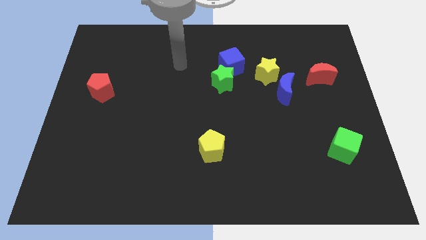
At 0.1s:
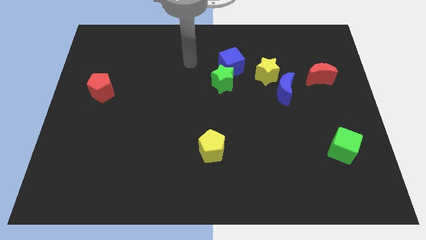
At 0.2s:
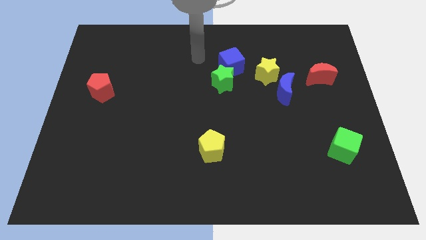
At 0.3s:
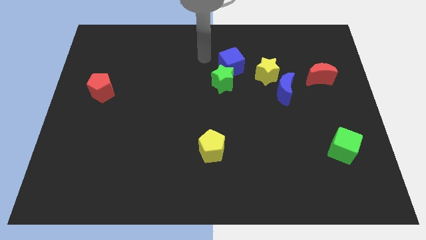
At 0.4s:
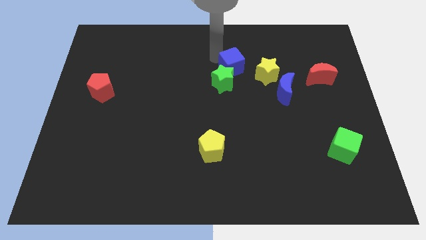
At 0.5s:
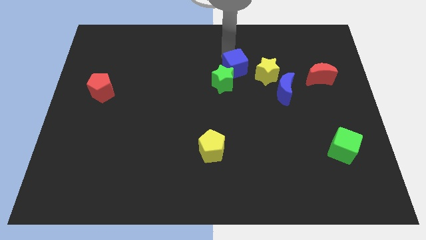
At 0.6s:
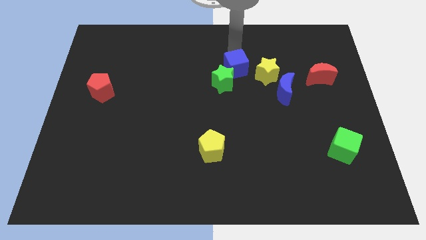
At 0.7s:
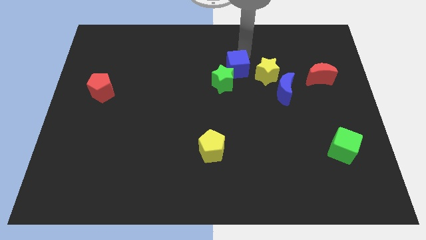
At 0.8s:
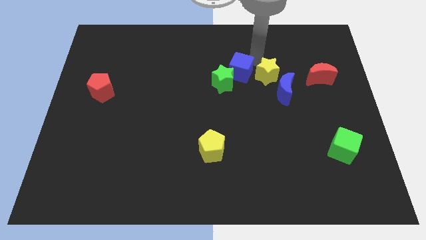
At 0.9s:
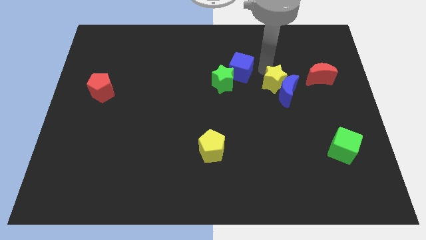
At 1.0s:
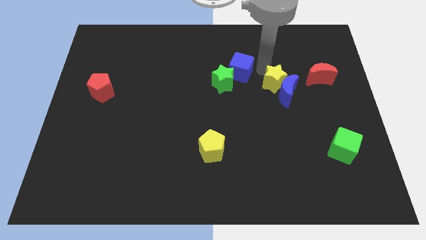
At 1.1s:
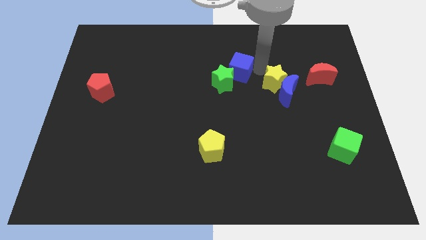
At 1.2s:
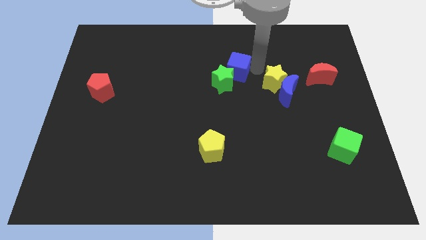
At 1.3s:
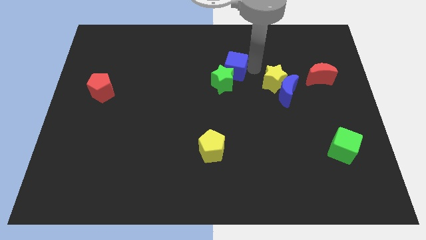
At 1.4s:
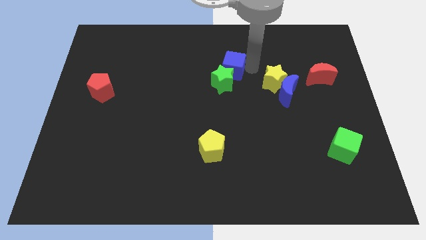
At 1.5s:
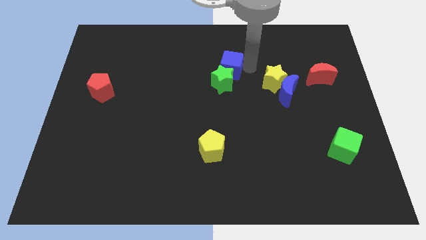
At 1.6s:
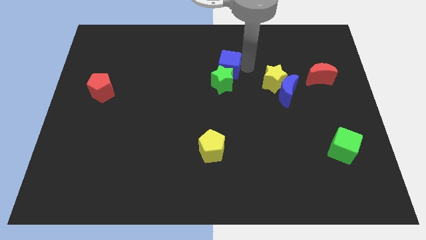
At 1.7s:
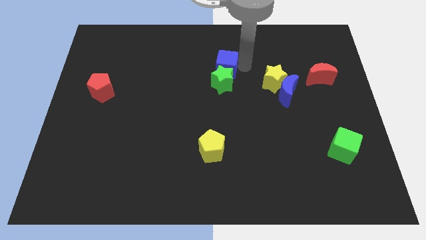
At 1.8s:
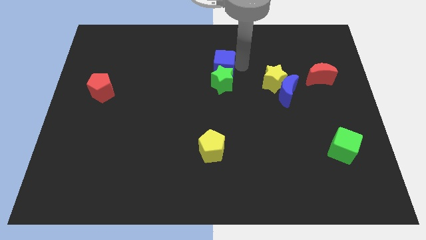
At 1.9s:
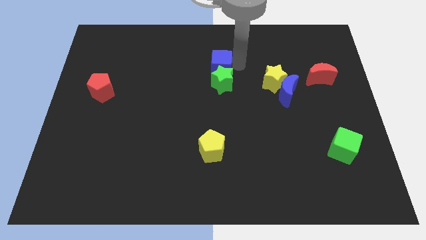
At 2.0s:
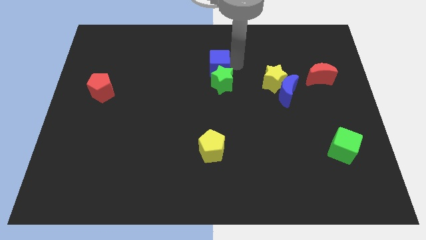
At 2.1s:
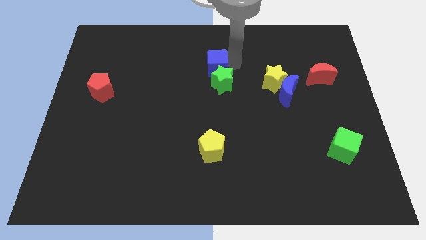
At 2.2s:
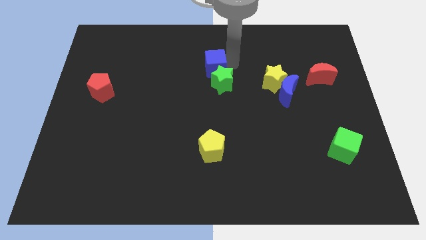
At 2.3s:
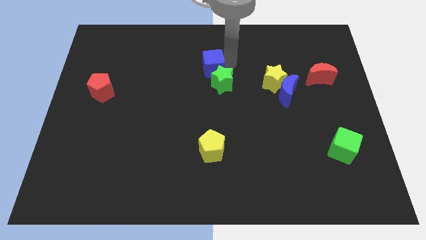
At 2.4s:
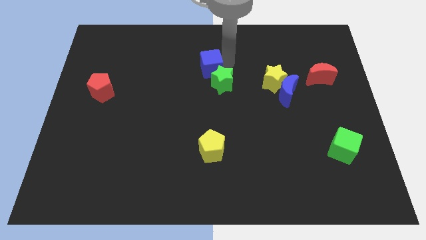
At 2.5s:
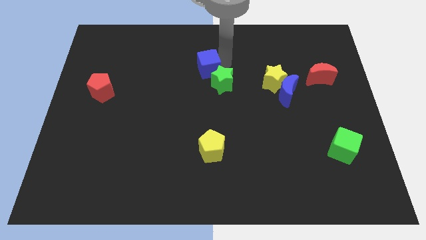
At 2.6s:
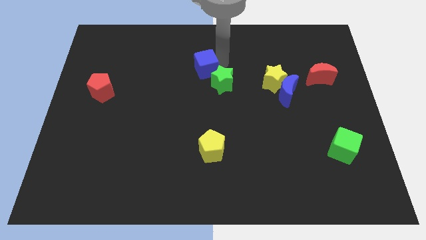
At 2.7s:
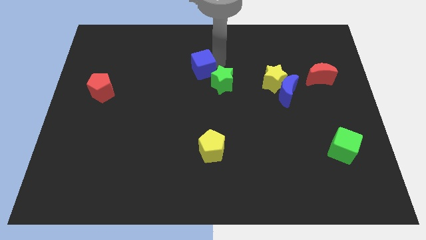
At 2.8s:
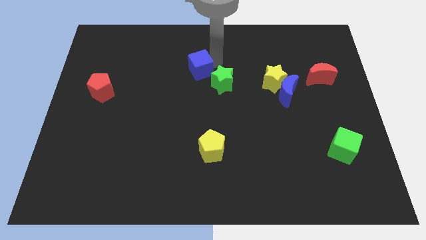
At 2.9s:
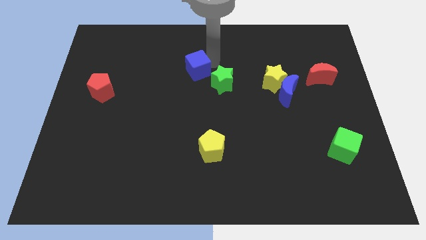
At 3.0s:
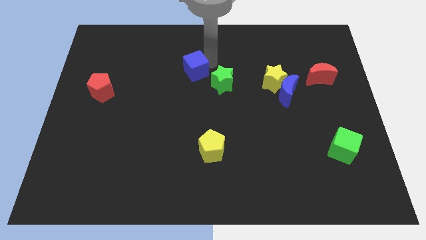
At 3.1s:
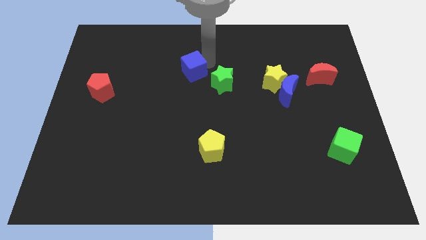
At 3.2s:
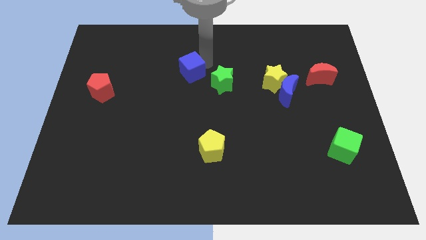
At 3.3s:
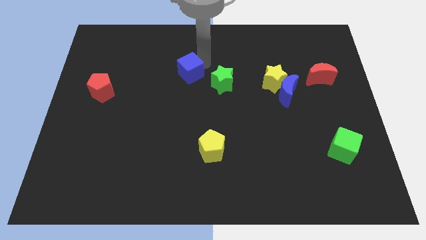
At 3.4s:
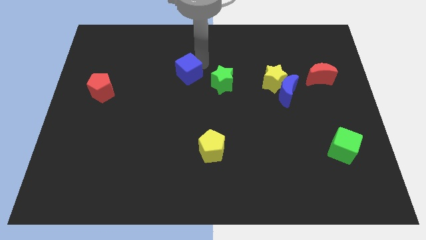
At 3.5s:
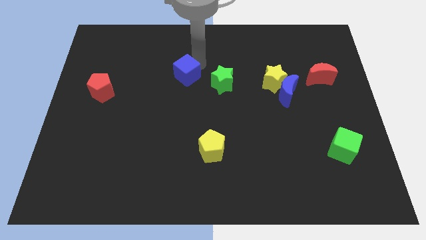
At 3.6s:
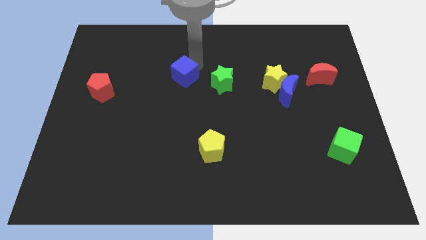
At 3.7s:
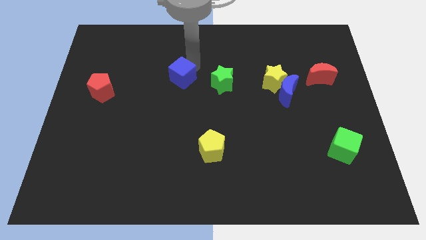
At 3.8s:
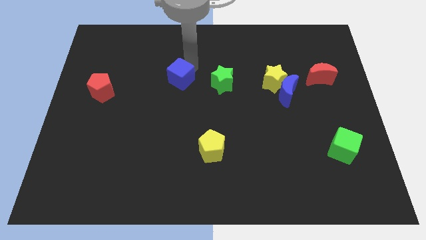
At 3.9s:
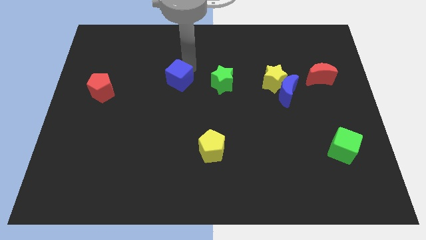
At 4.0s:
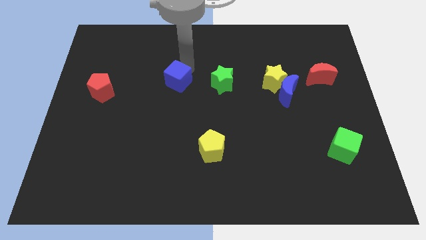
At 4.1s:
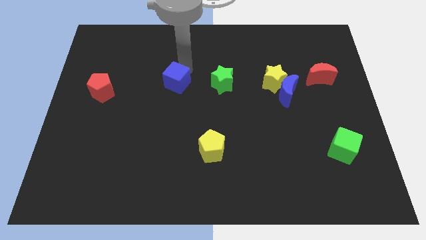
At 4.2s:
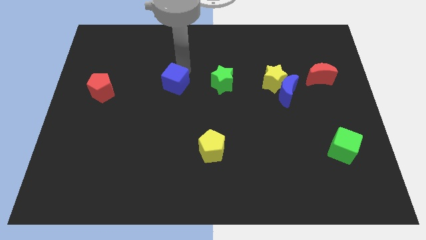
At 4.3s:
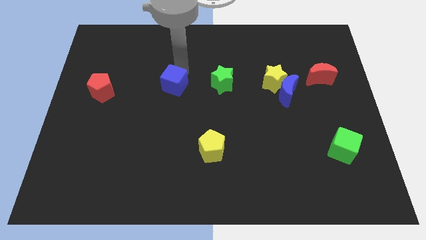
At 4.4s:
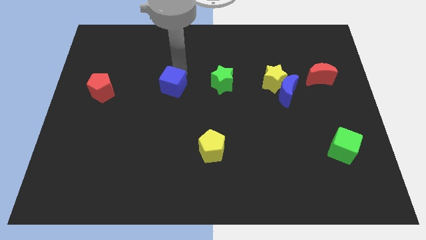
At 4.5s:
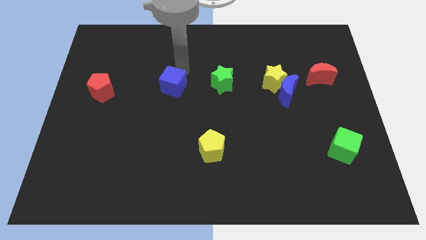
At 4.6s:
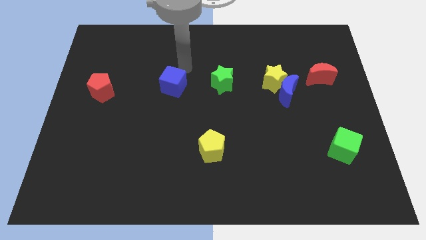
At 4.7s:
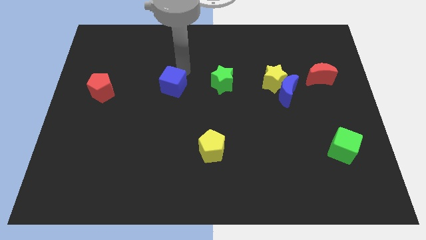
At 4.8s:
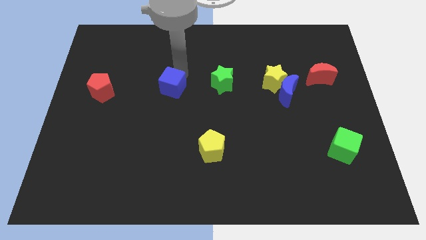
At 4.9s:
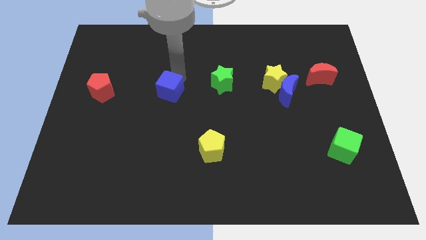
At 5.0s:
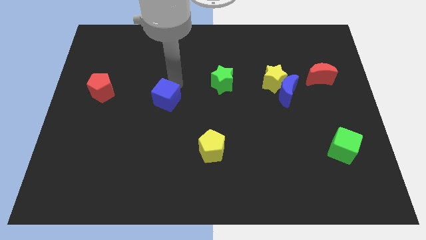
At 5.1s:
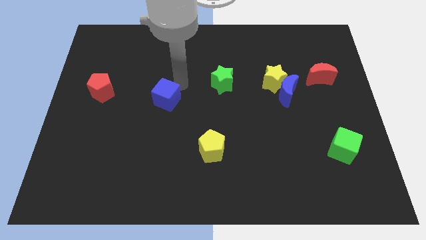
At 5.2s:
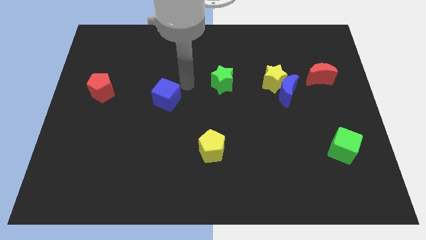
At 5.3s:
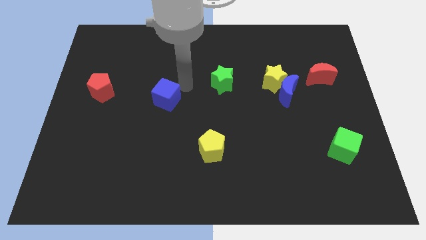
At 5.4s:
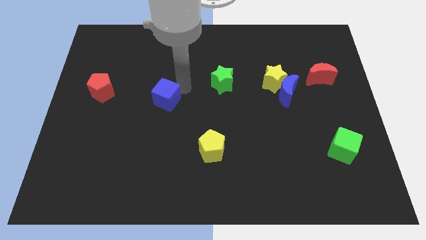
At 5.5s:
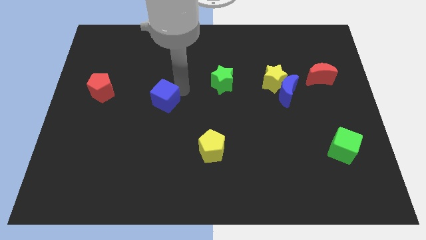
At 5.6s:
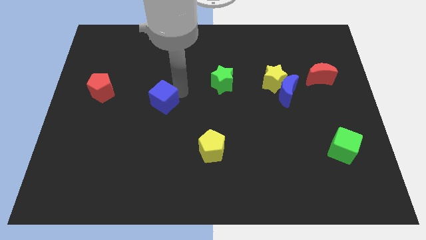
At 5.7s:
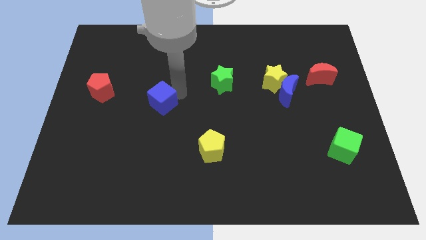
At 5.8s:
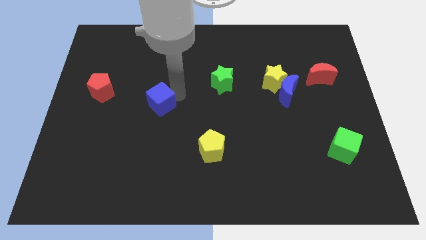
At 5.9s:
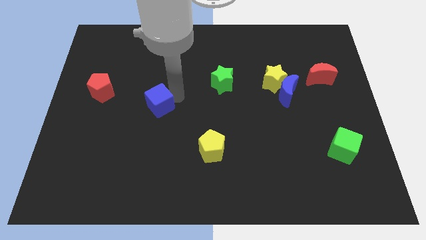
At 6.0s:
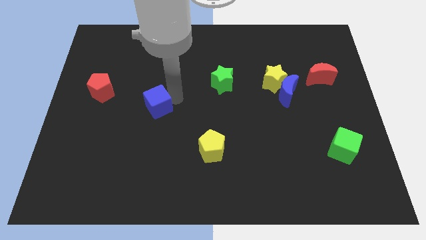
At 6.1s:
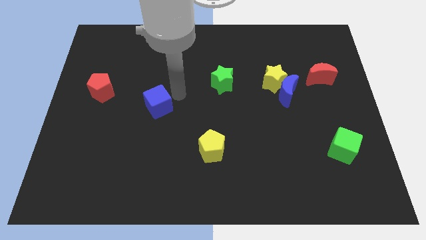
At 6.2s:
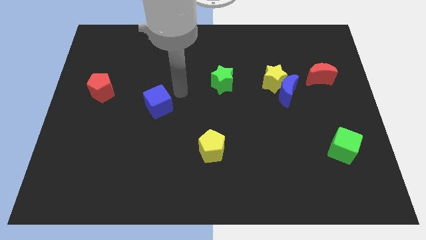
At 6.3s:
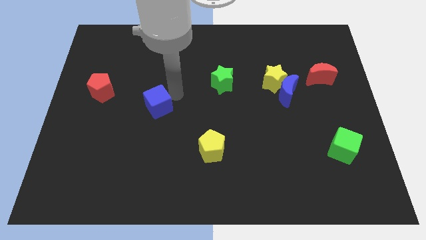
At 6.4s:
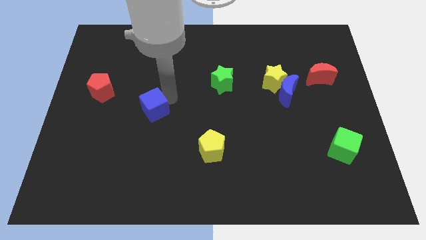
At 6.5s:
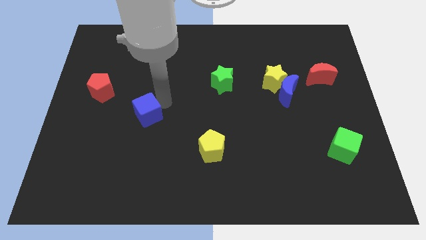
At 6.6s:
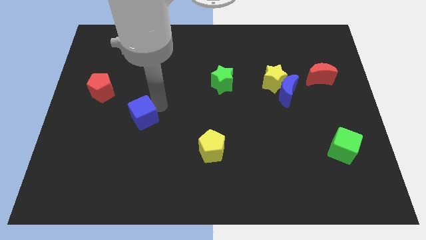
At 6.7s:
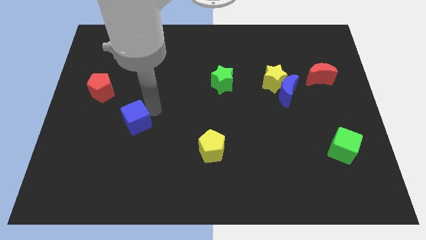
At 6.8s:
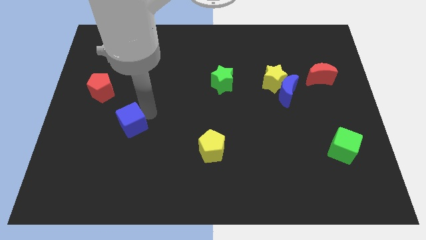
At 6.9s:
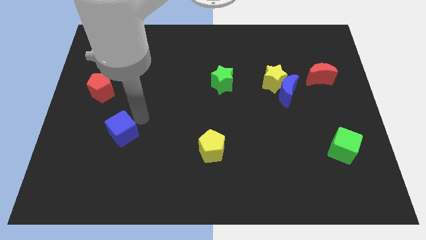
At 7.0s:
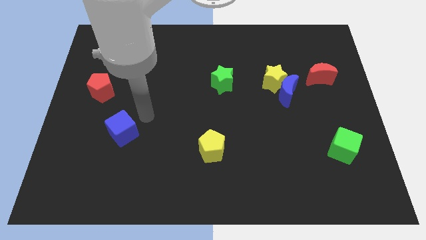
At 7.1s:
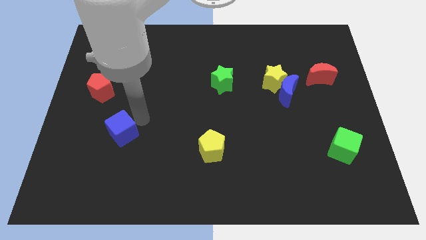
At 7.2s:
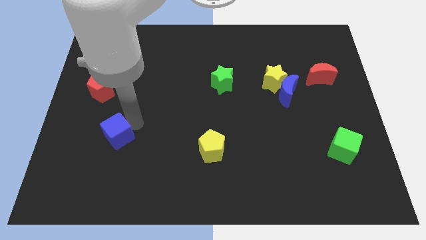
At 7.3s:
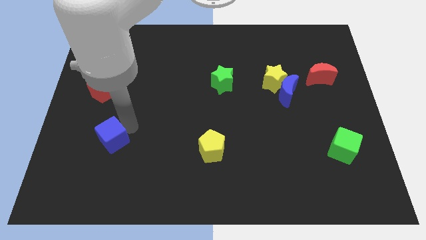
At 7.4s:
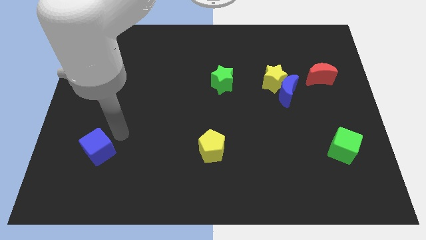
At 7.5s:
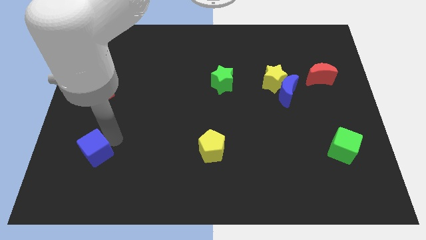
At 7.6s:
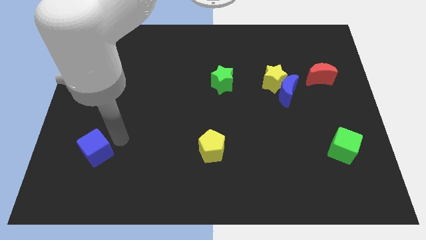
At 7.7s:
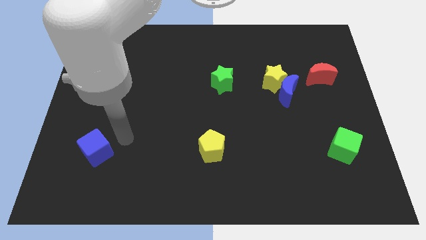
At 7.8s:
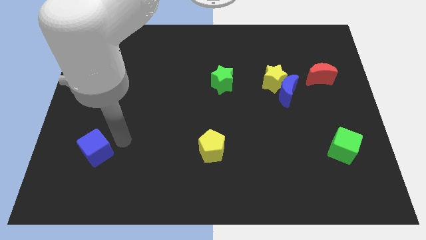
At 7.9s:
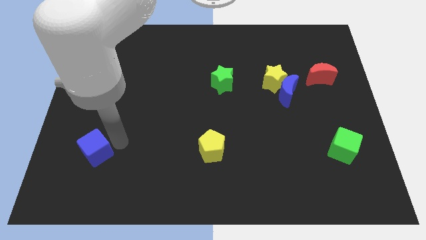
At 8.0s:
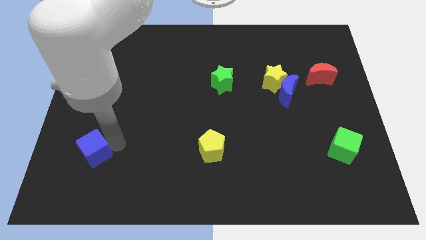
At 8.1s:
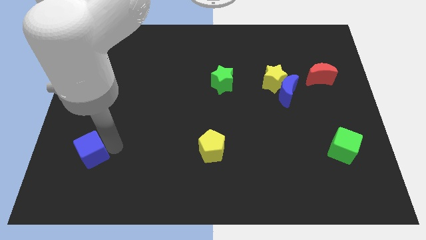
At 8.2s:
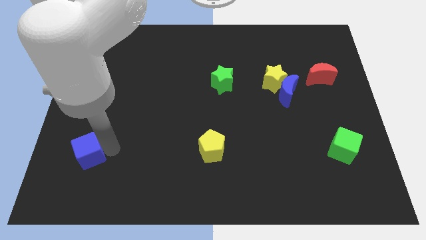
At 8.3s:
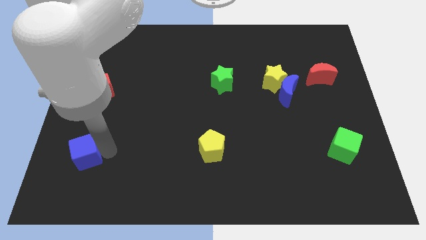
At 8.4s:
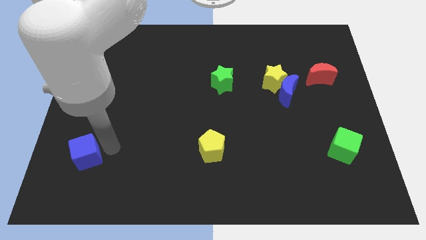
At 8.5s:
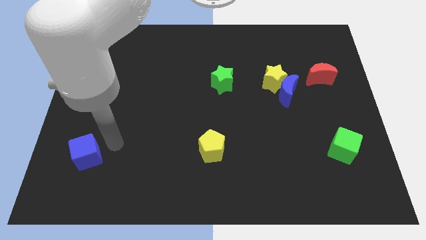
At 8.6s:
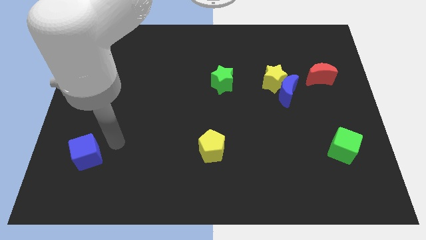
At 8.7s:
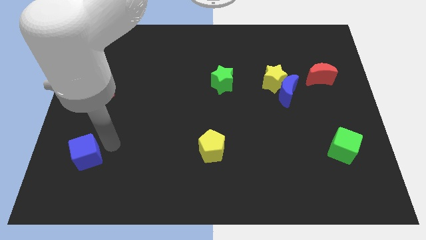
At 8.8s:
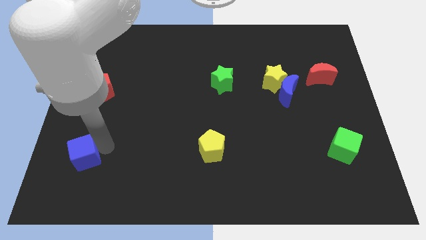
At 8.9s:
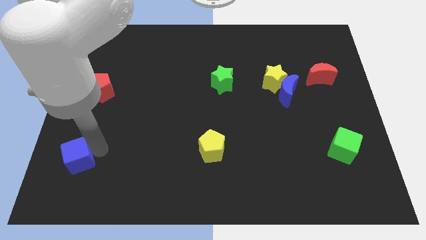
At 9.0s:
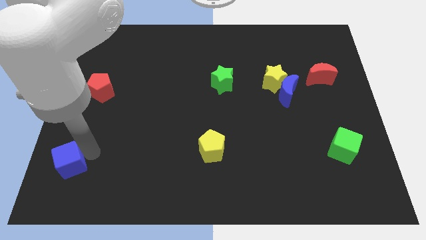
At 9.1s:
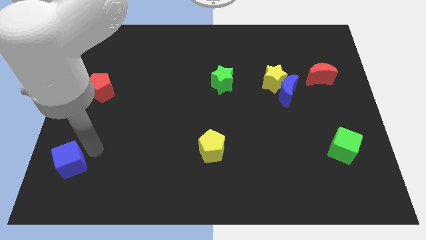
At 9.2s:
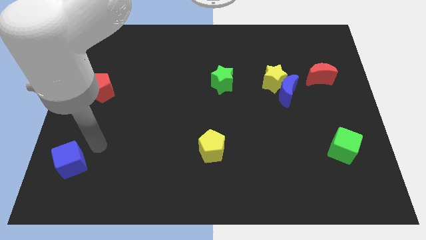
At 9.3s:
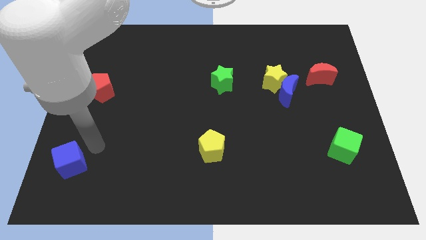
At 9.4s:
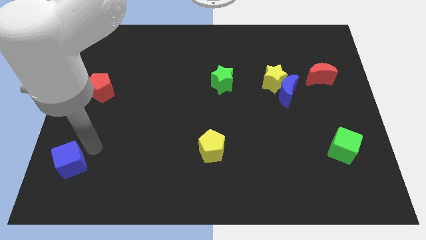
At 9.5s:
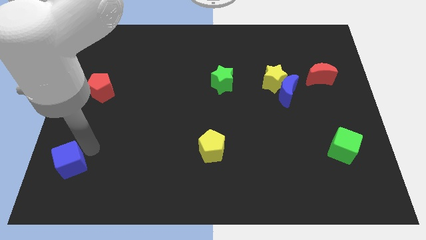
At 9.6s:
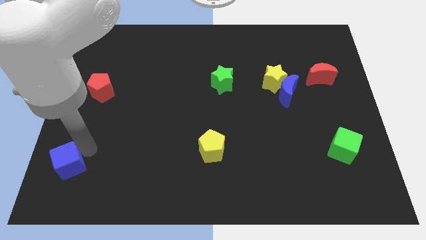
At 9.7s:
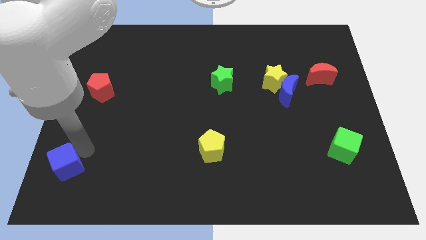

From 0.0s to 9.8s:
move the blue cube to the bottom left of the board
